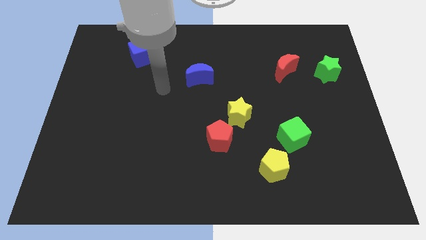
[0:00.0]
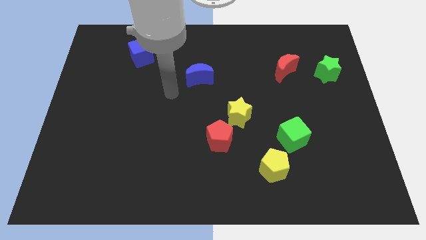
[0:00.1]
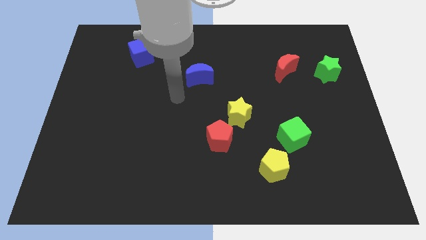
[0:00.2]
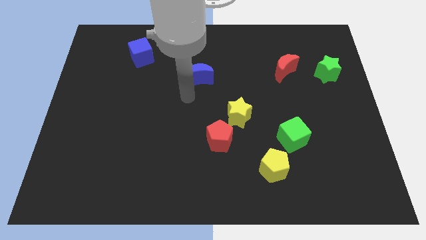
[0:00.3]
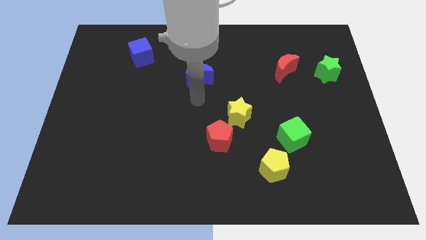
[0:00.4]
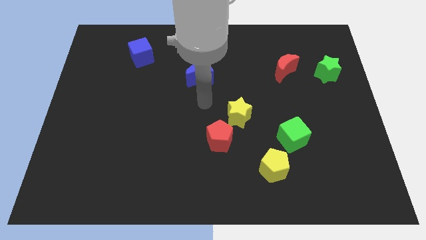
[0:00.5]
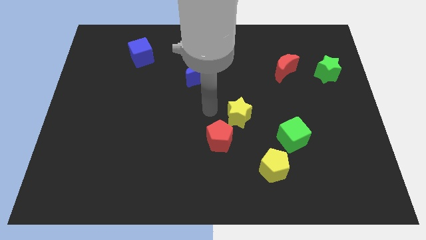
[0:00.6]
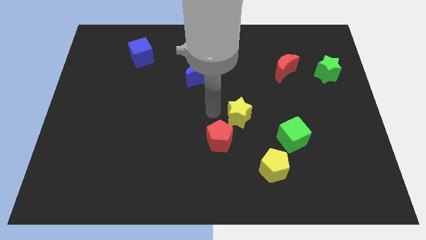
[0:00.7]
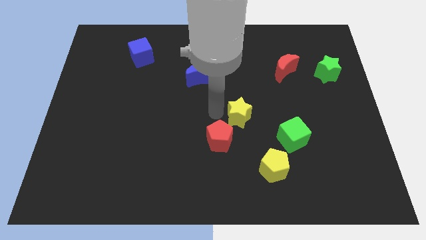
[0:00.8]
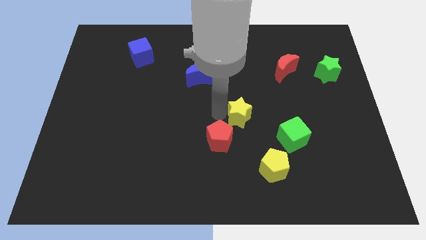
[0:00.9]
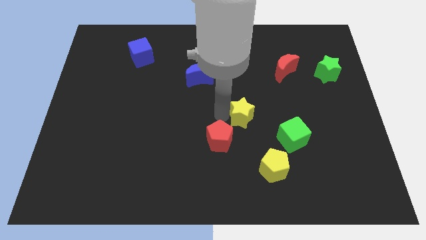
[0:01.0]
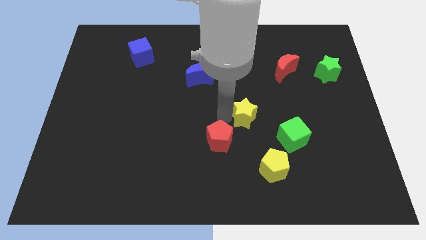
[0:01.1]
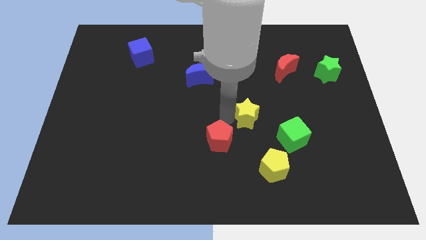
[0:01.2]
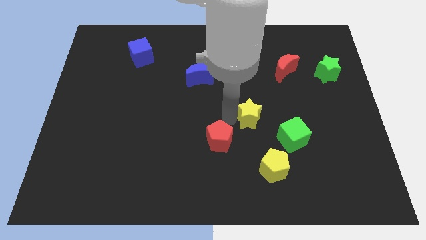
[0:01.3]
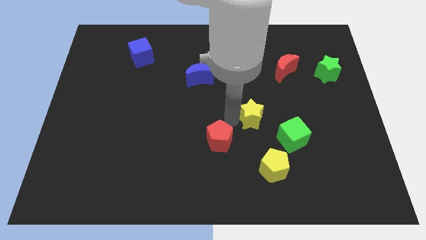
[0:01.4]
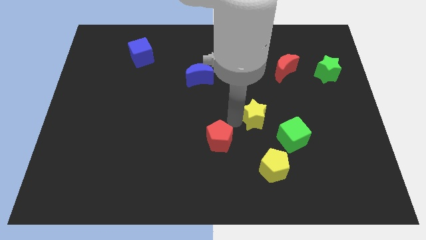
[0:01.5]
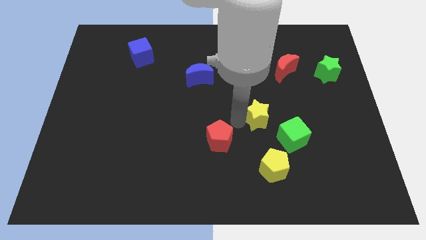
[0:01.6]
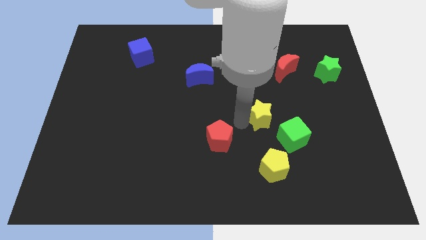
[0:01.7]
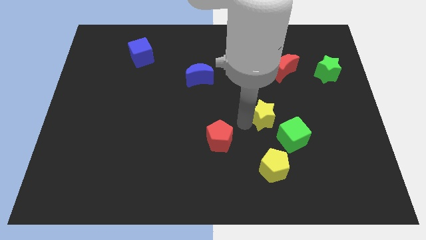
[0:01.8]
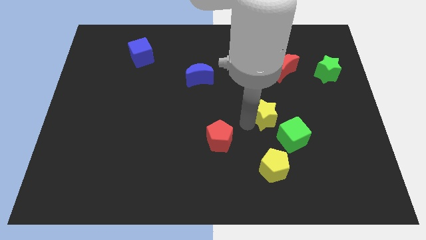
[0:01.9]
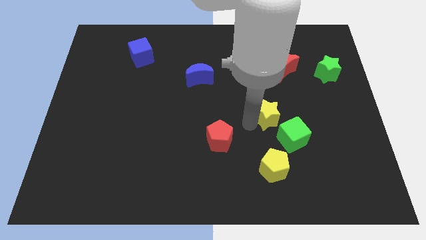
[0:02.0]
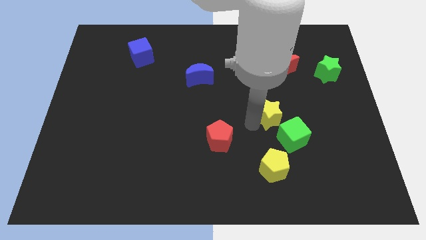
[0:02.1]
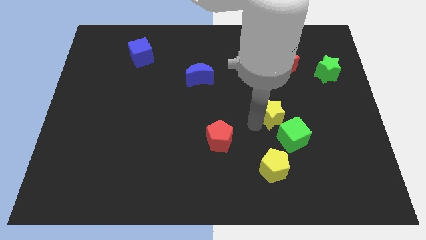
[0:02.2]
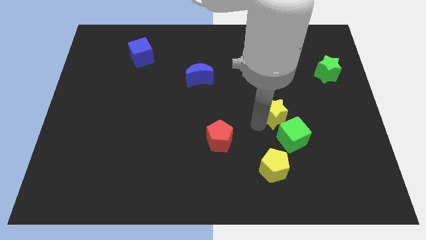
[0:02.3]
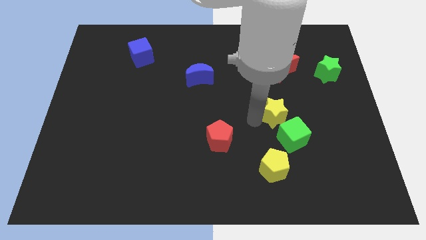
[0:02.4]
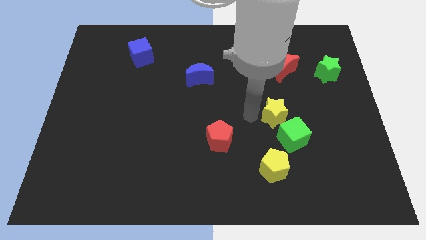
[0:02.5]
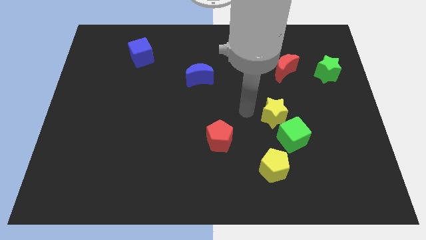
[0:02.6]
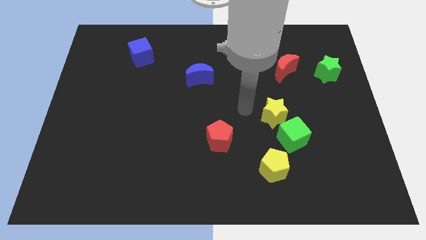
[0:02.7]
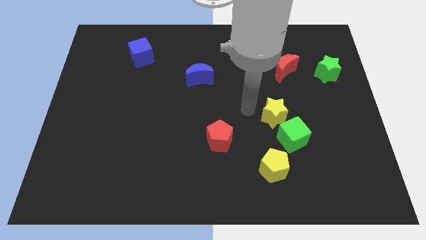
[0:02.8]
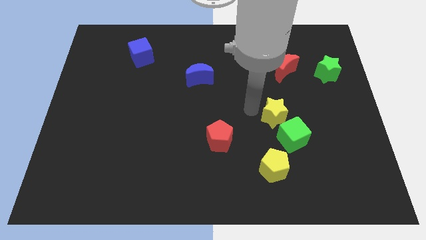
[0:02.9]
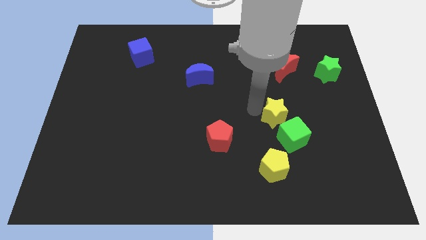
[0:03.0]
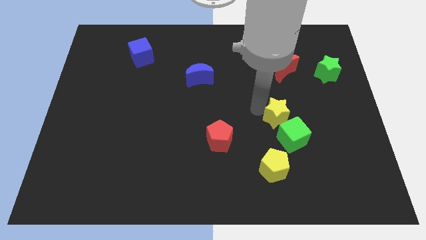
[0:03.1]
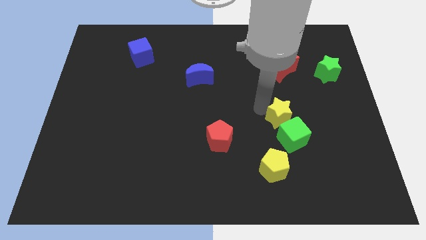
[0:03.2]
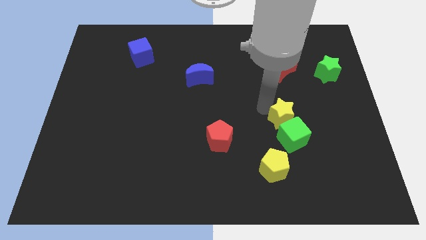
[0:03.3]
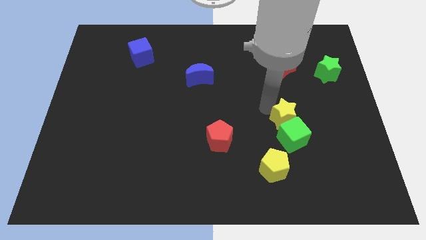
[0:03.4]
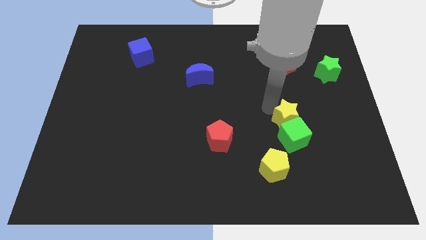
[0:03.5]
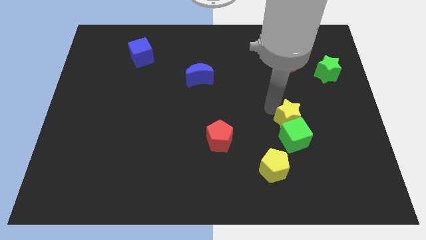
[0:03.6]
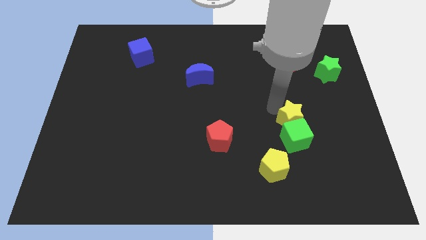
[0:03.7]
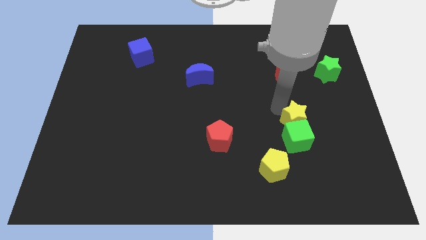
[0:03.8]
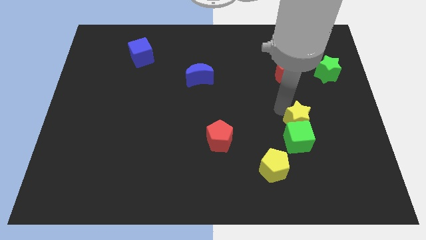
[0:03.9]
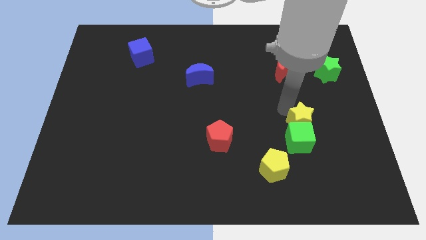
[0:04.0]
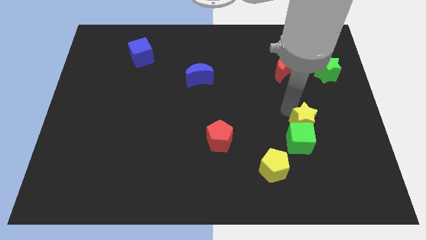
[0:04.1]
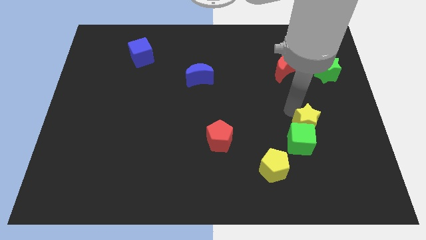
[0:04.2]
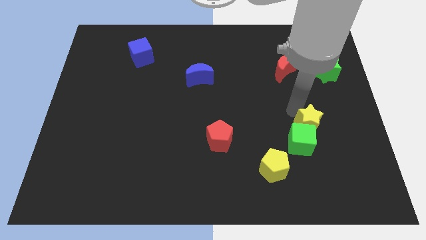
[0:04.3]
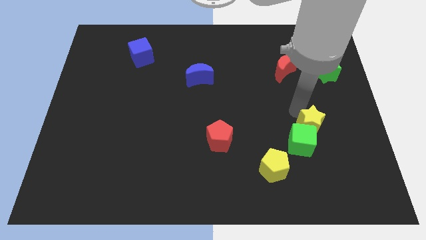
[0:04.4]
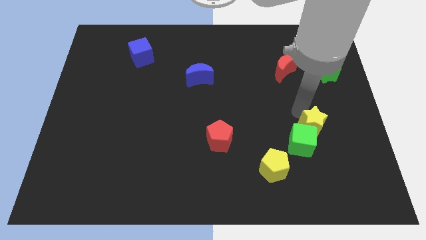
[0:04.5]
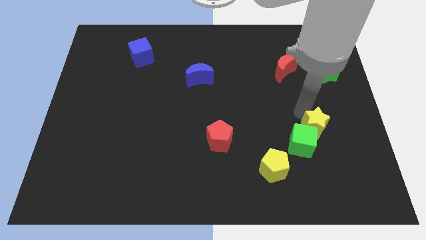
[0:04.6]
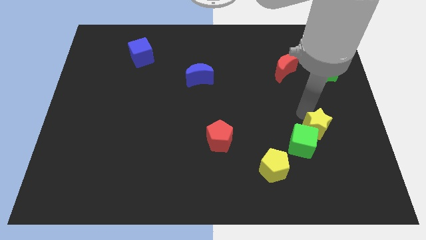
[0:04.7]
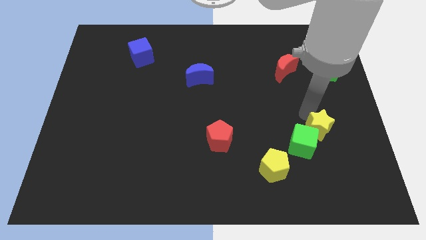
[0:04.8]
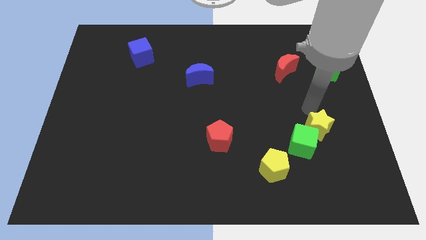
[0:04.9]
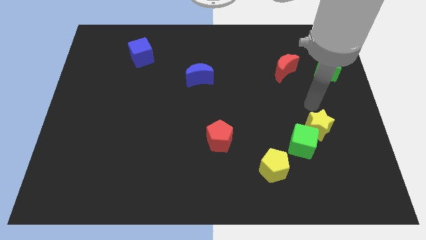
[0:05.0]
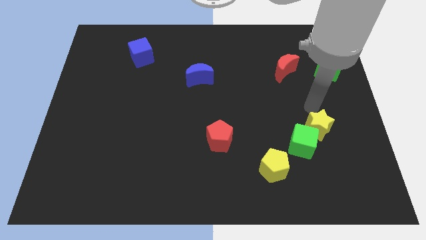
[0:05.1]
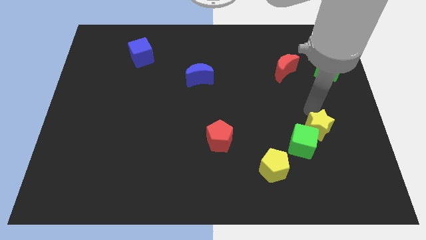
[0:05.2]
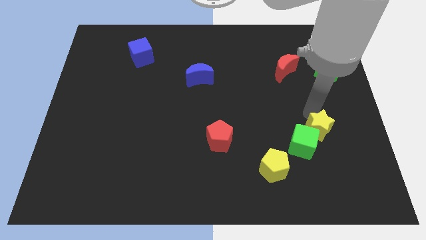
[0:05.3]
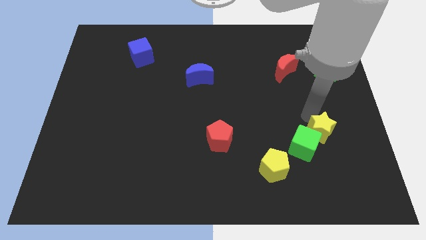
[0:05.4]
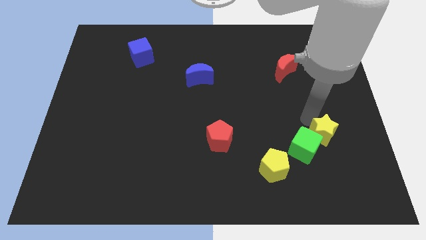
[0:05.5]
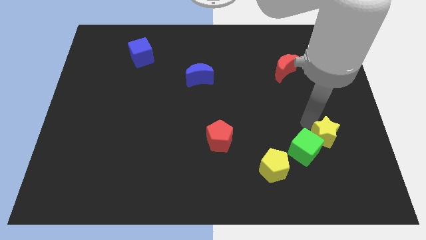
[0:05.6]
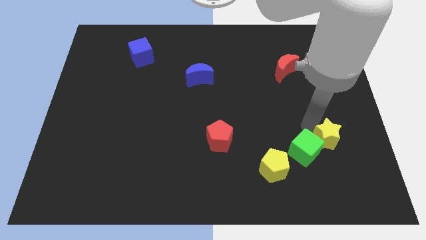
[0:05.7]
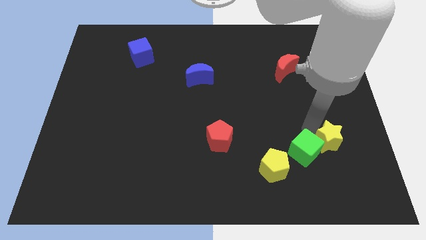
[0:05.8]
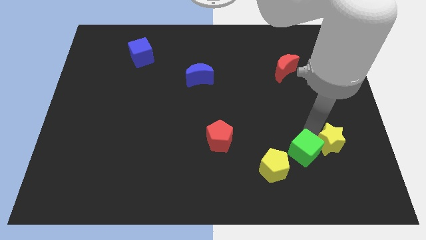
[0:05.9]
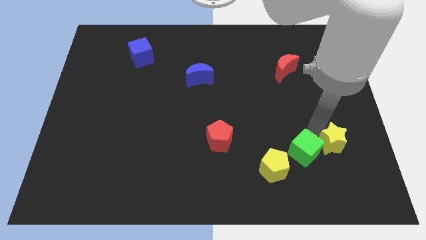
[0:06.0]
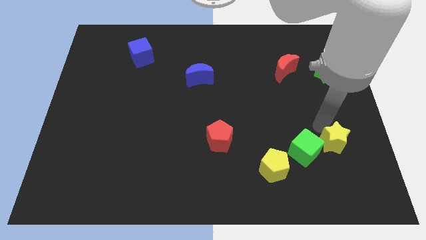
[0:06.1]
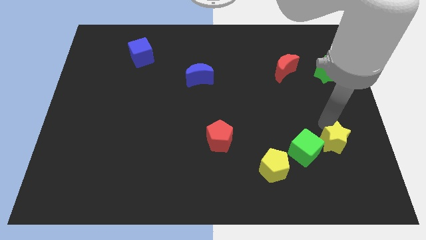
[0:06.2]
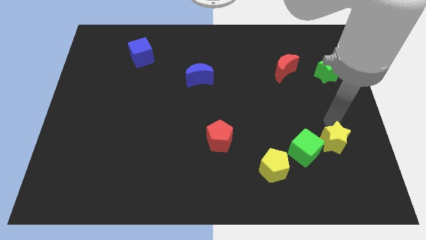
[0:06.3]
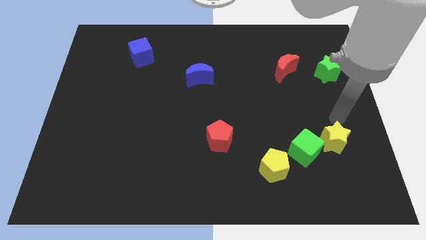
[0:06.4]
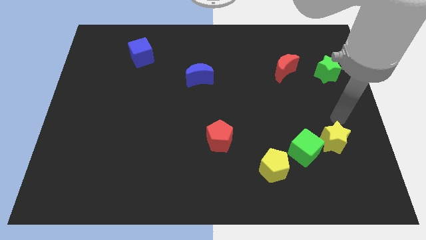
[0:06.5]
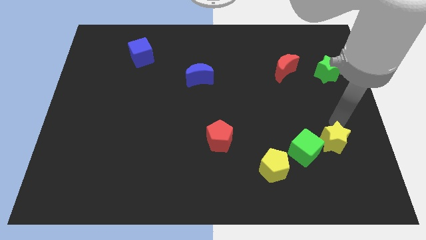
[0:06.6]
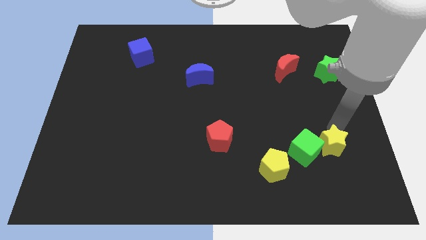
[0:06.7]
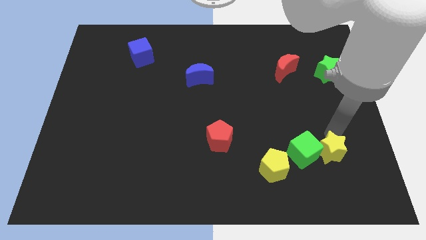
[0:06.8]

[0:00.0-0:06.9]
put the yellow star to the right side of the yellow pentagon

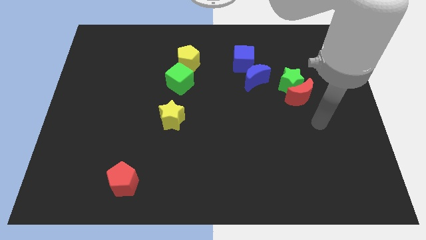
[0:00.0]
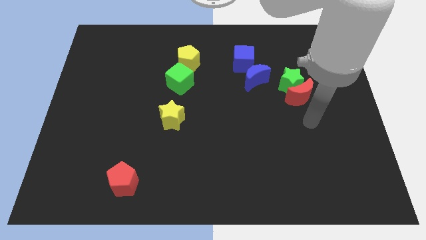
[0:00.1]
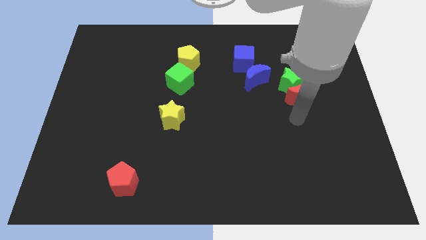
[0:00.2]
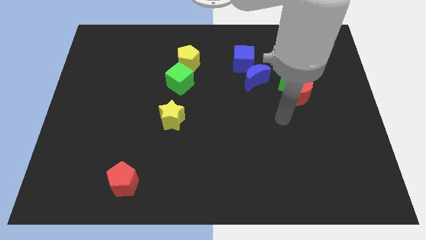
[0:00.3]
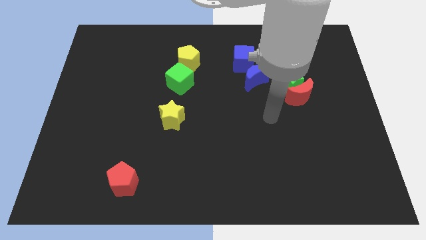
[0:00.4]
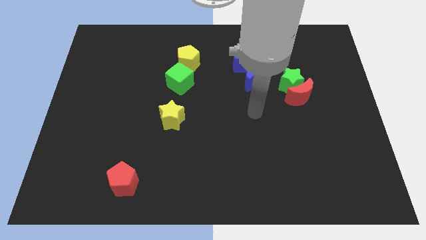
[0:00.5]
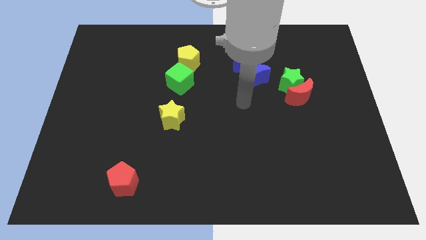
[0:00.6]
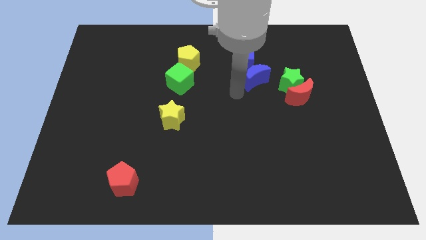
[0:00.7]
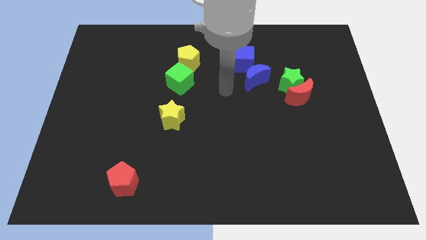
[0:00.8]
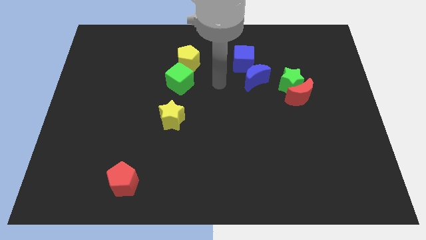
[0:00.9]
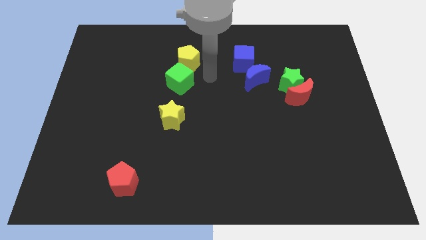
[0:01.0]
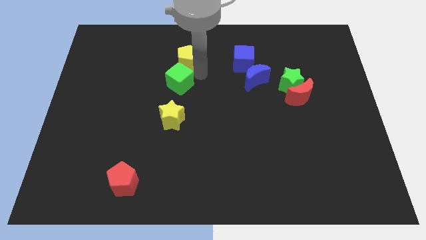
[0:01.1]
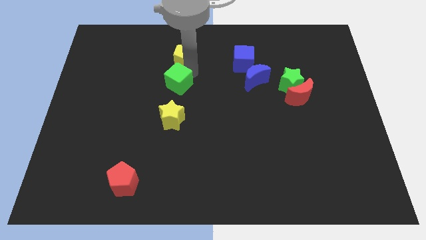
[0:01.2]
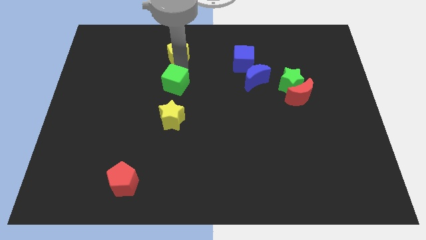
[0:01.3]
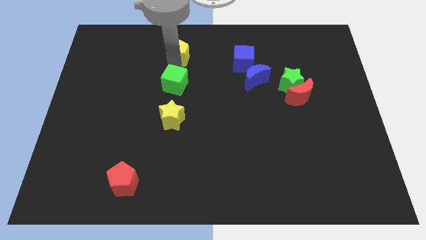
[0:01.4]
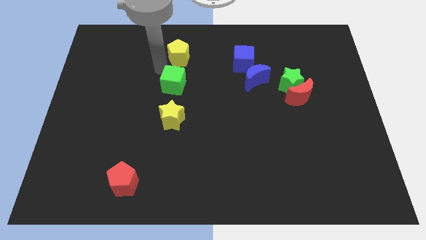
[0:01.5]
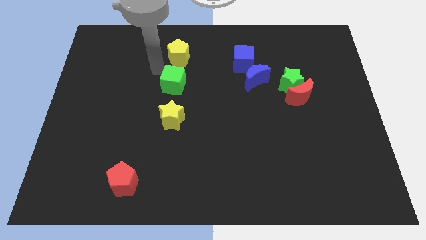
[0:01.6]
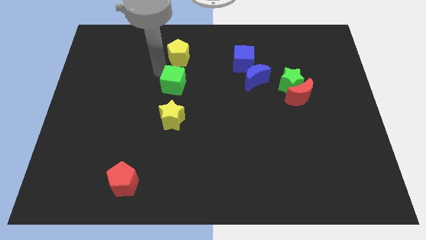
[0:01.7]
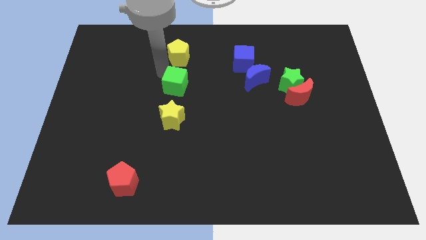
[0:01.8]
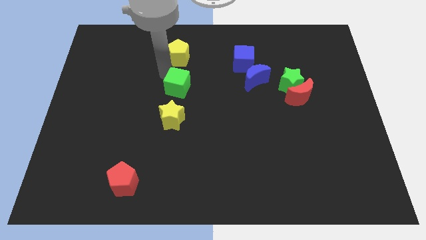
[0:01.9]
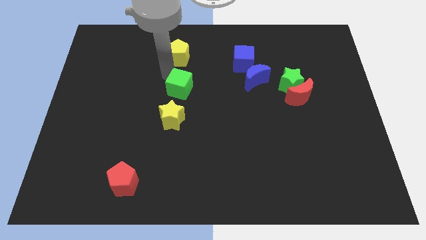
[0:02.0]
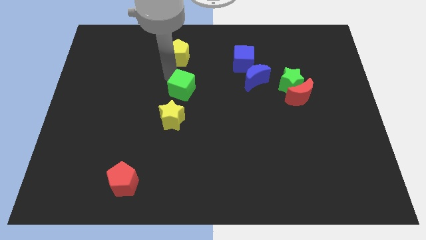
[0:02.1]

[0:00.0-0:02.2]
move the green cube diagonally up and to the right of the yellow star
